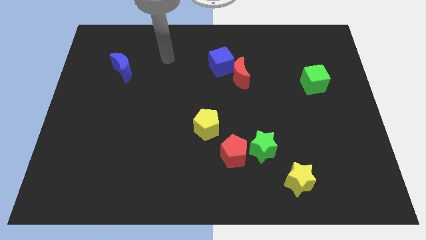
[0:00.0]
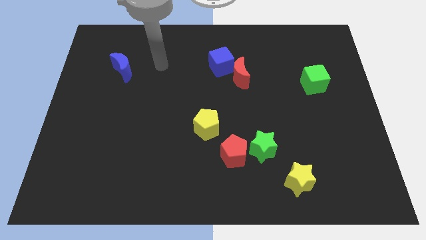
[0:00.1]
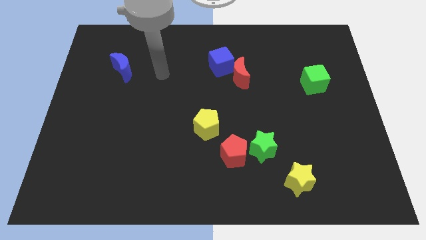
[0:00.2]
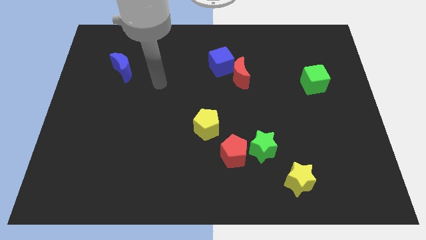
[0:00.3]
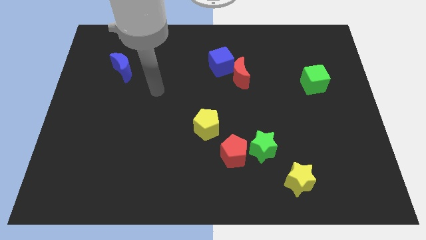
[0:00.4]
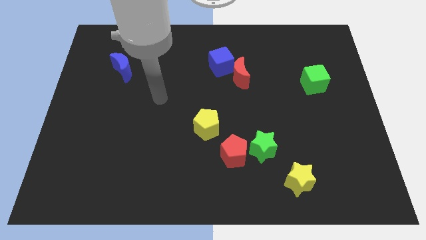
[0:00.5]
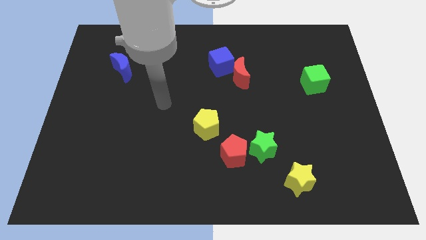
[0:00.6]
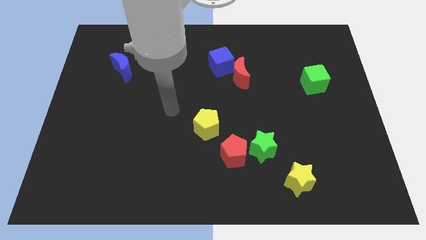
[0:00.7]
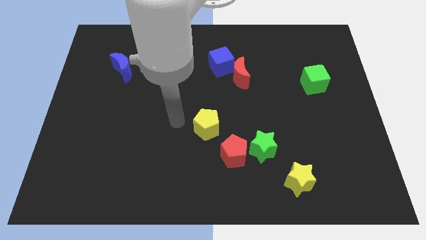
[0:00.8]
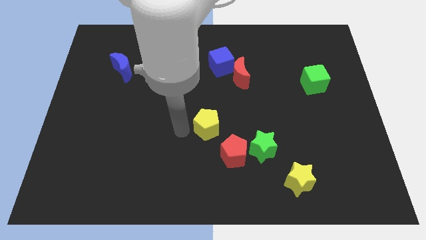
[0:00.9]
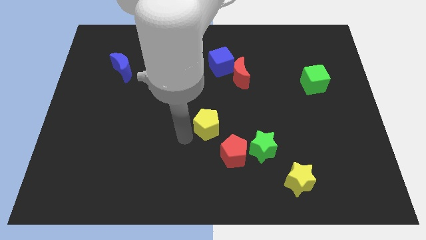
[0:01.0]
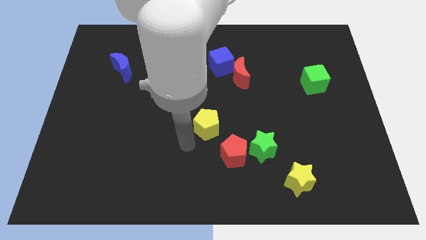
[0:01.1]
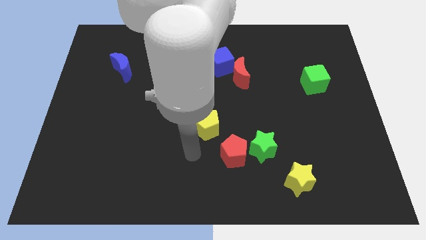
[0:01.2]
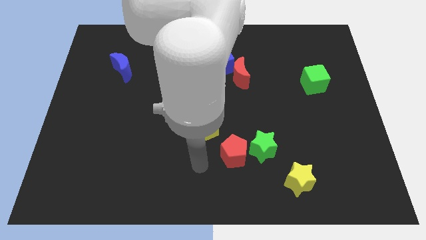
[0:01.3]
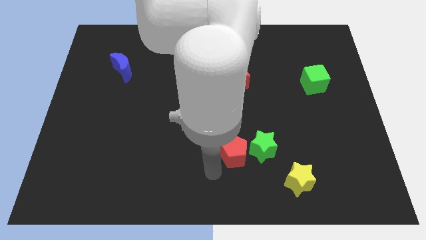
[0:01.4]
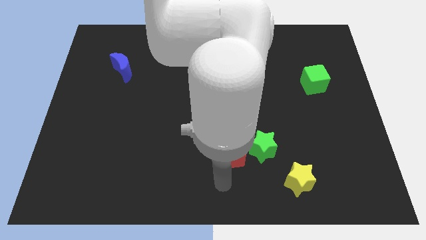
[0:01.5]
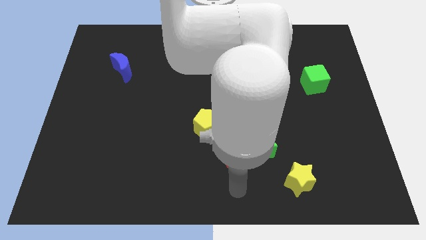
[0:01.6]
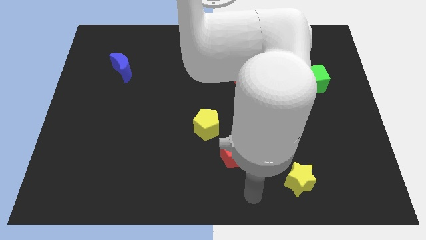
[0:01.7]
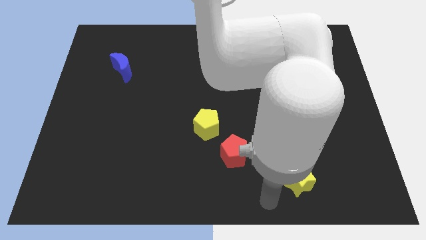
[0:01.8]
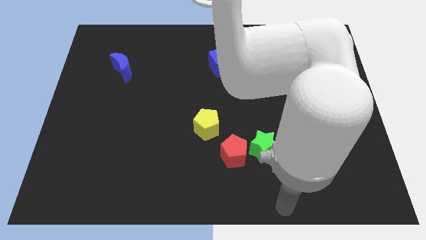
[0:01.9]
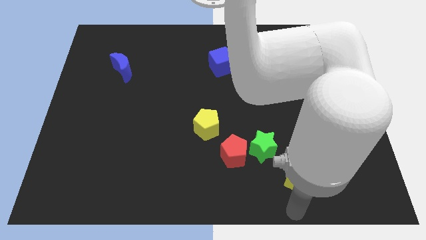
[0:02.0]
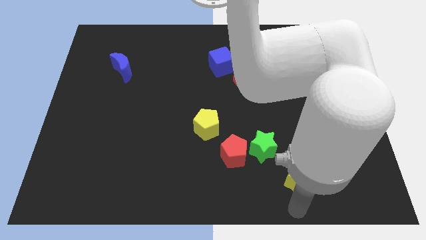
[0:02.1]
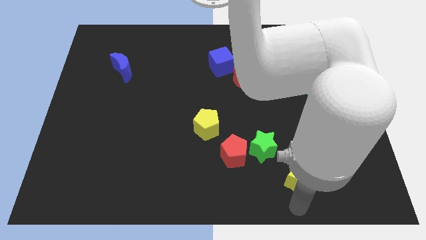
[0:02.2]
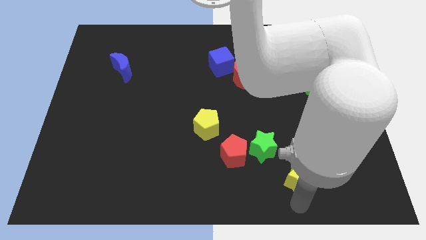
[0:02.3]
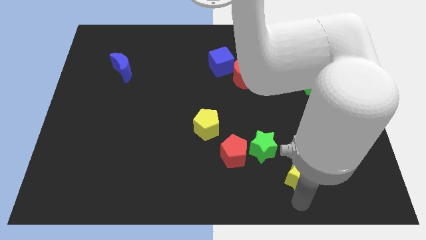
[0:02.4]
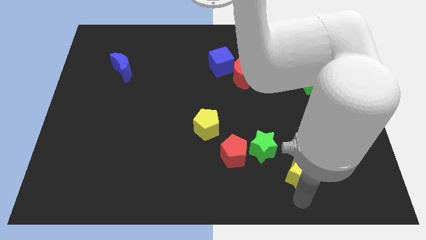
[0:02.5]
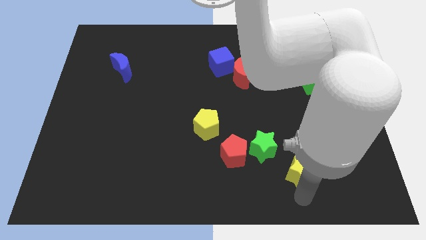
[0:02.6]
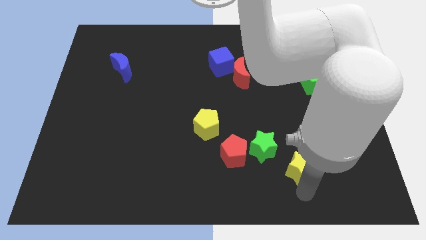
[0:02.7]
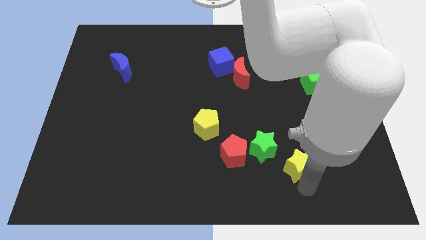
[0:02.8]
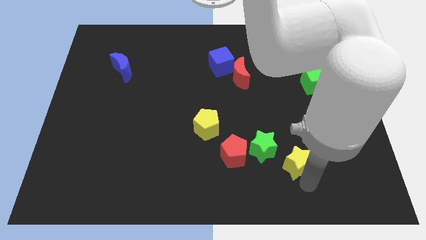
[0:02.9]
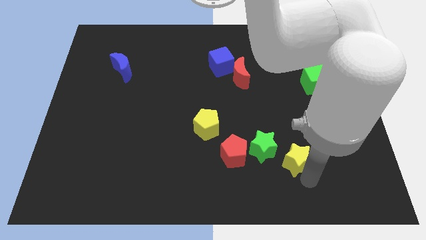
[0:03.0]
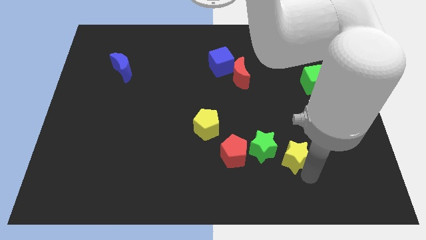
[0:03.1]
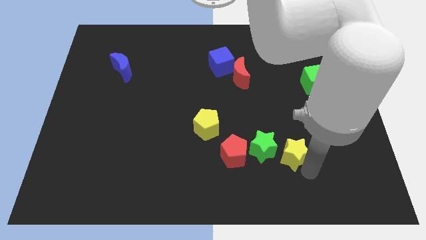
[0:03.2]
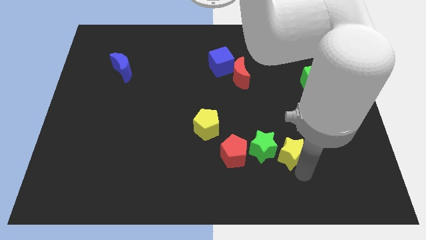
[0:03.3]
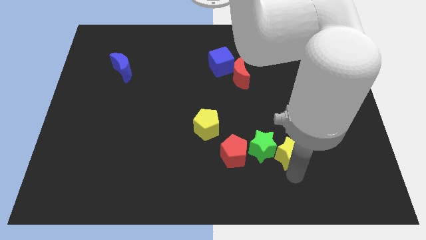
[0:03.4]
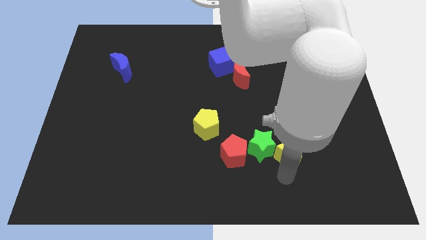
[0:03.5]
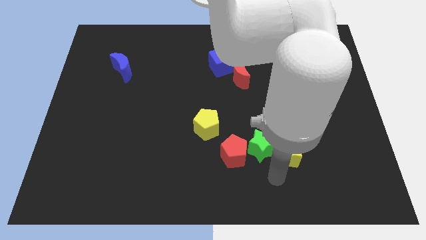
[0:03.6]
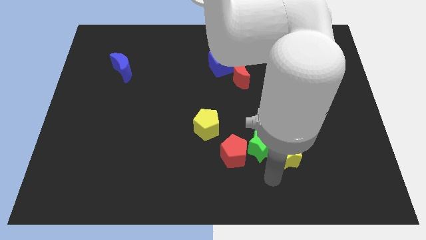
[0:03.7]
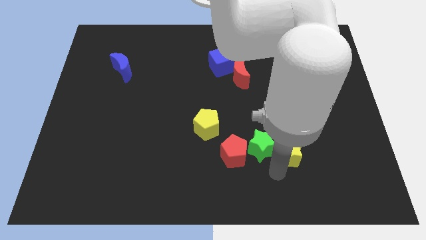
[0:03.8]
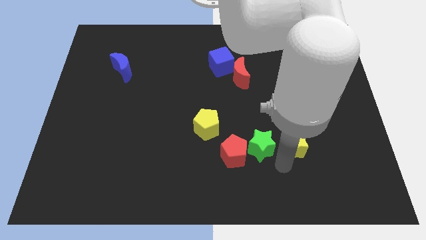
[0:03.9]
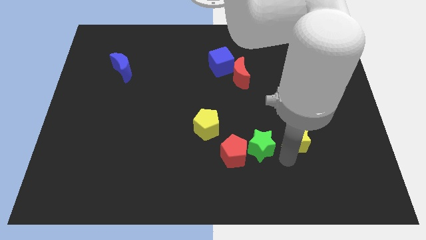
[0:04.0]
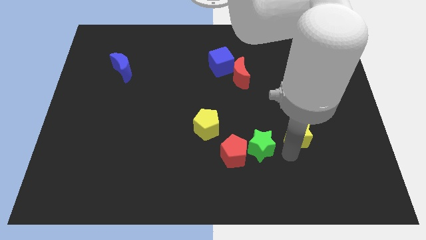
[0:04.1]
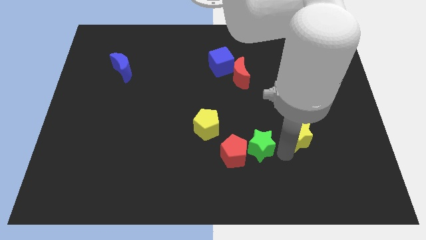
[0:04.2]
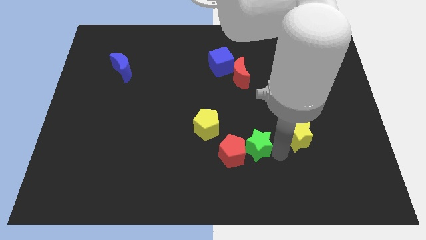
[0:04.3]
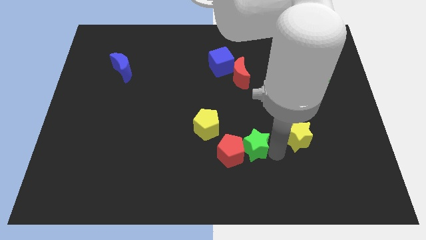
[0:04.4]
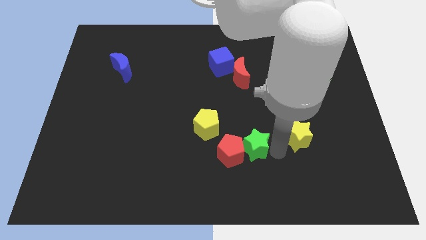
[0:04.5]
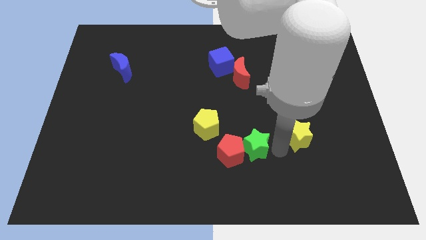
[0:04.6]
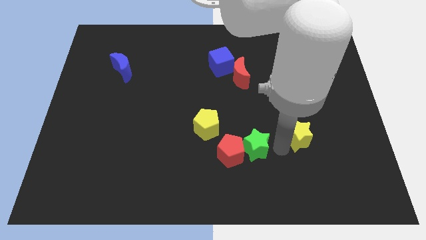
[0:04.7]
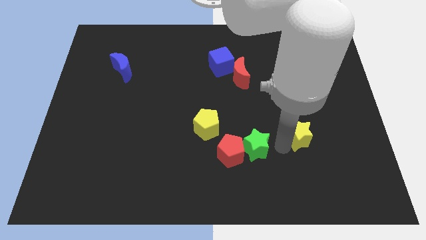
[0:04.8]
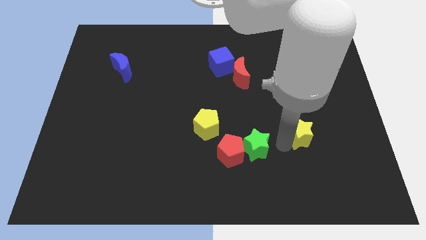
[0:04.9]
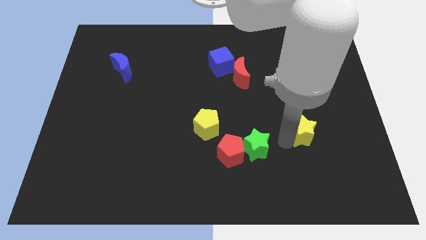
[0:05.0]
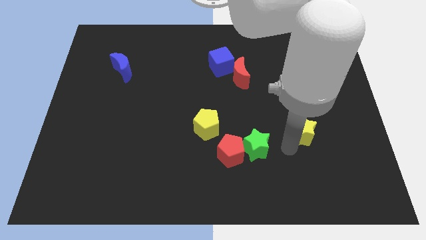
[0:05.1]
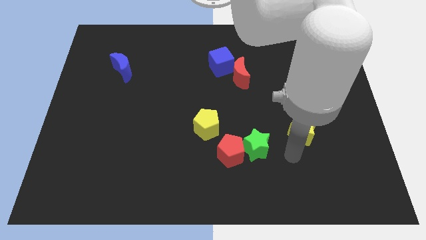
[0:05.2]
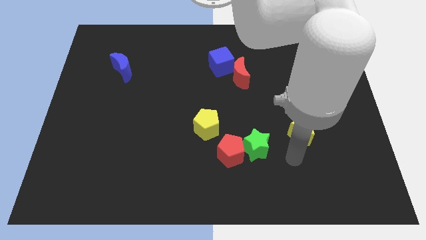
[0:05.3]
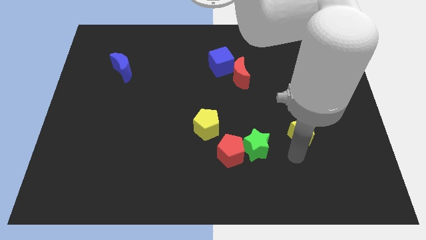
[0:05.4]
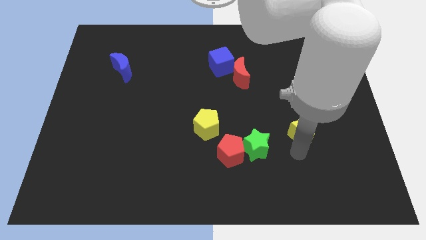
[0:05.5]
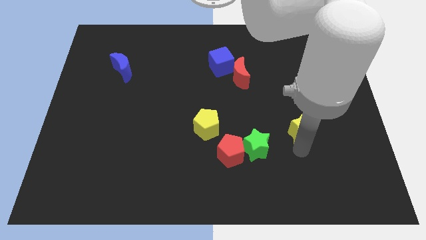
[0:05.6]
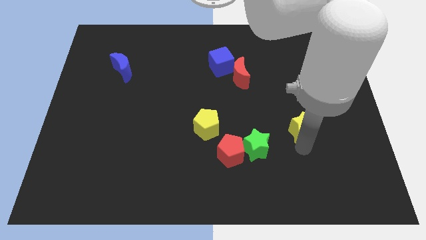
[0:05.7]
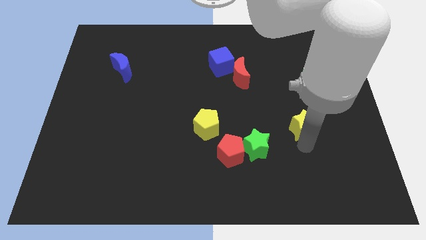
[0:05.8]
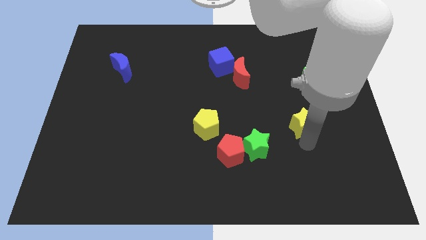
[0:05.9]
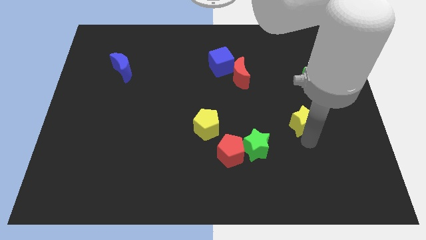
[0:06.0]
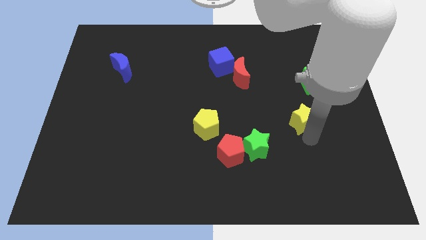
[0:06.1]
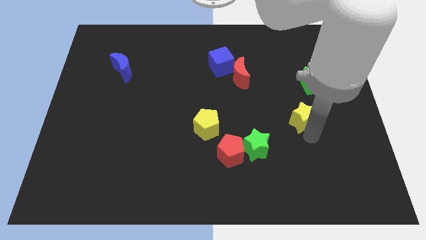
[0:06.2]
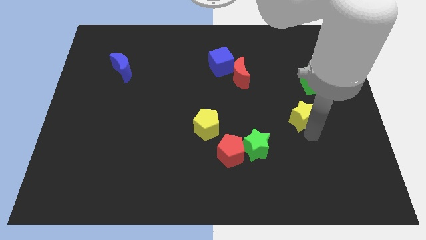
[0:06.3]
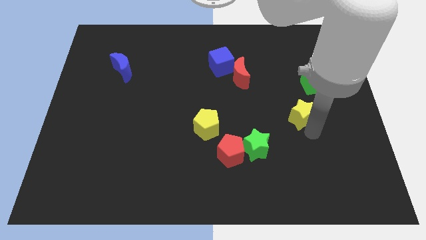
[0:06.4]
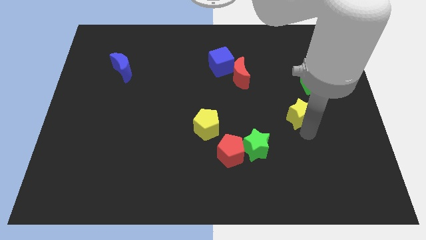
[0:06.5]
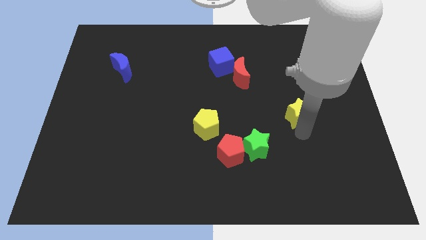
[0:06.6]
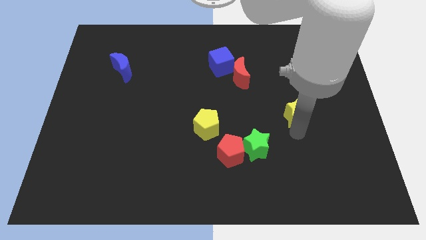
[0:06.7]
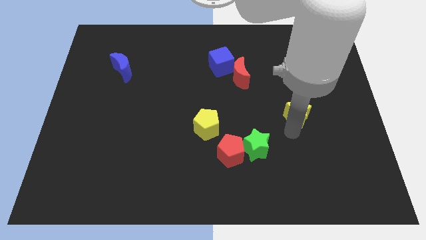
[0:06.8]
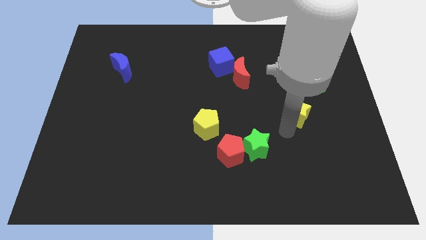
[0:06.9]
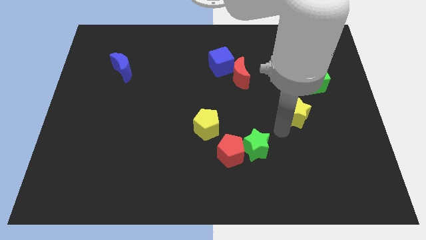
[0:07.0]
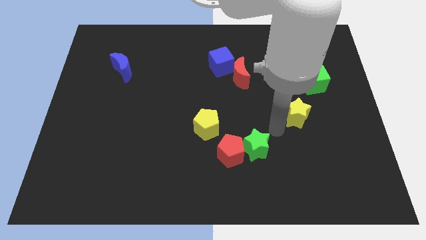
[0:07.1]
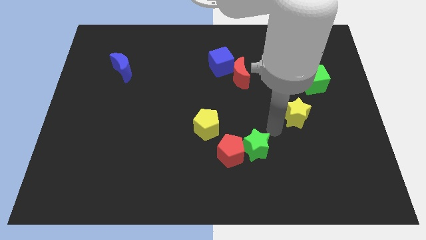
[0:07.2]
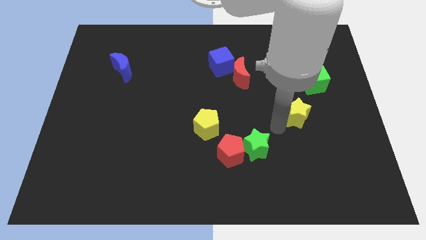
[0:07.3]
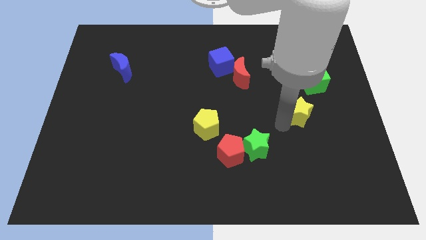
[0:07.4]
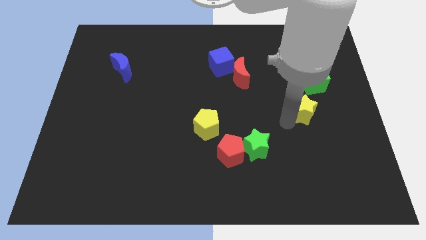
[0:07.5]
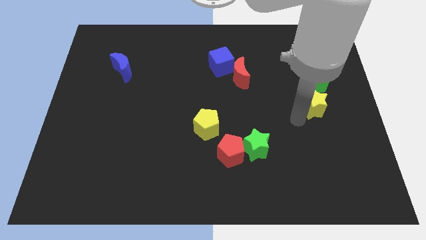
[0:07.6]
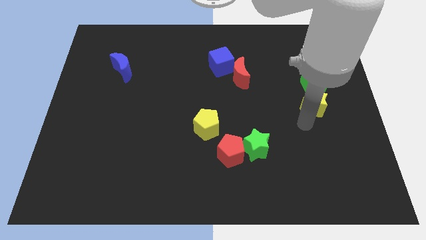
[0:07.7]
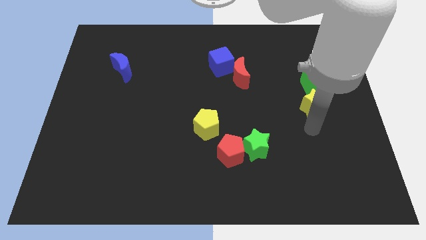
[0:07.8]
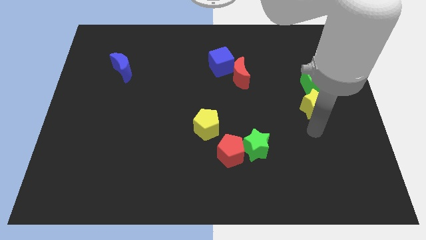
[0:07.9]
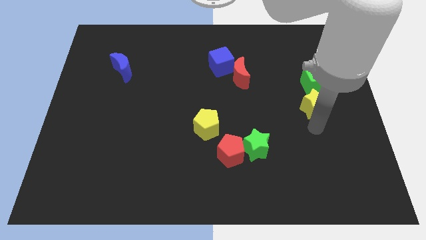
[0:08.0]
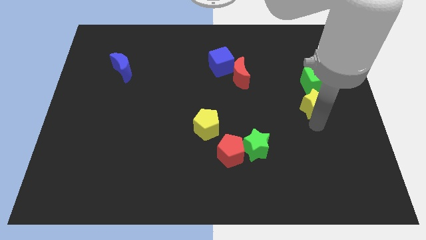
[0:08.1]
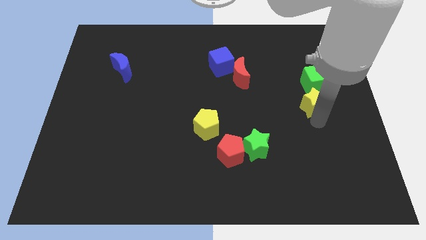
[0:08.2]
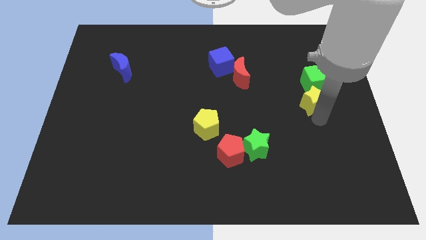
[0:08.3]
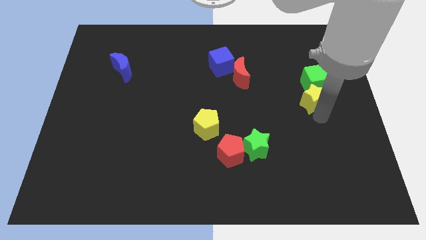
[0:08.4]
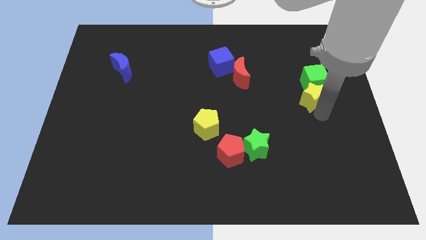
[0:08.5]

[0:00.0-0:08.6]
slide the yellow star next to the green cube
